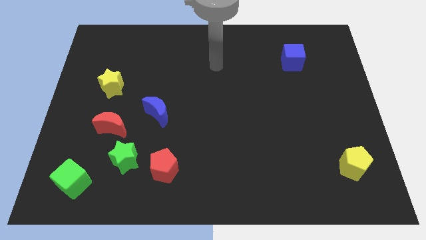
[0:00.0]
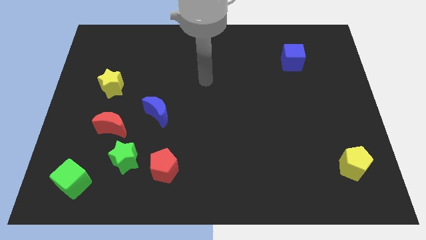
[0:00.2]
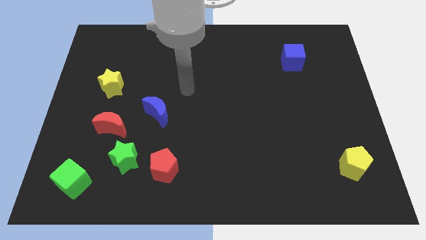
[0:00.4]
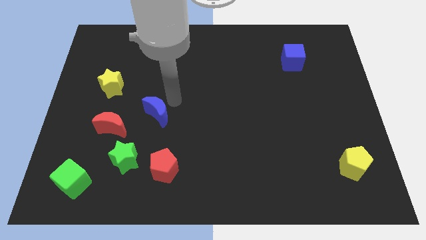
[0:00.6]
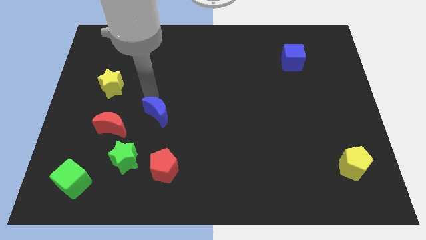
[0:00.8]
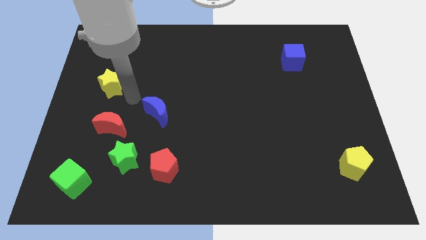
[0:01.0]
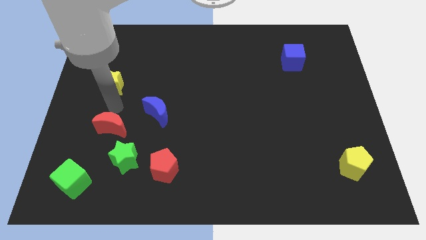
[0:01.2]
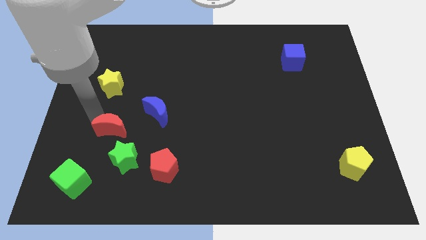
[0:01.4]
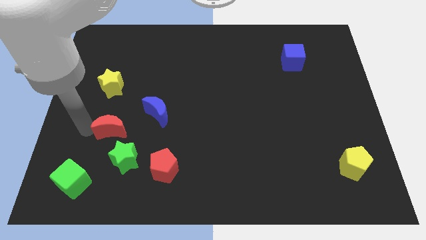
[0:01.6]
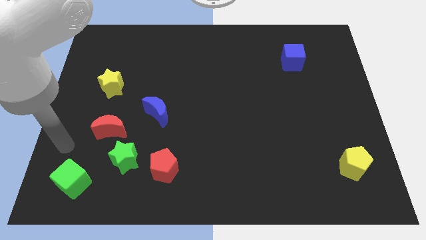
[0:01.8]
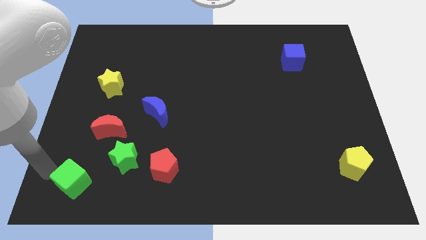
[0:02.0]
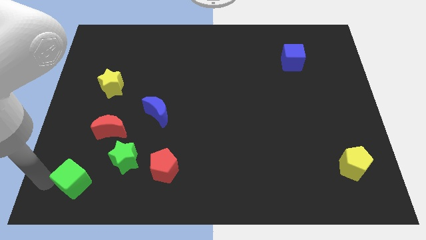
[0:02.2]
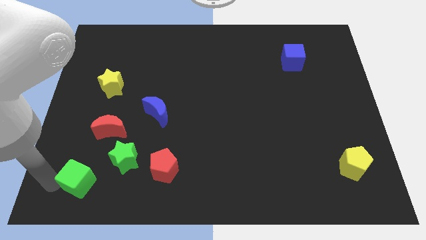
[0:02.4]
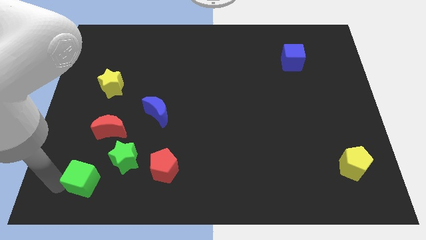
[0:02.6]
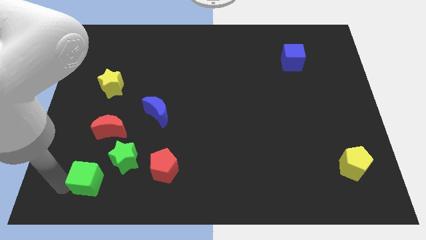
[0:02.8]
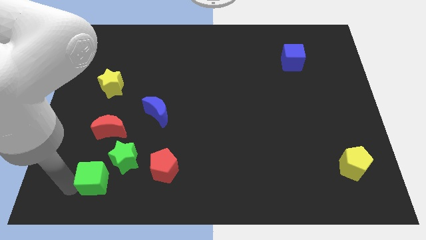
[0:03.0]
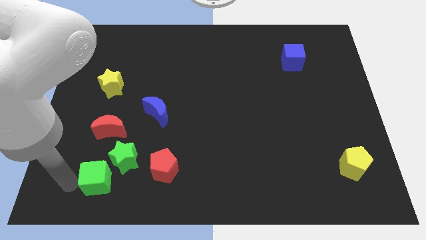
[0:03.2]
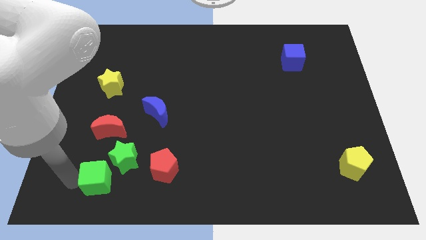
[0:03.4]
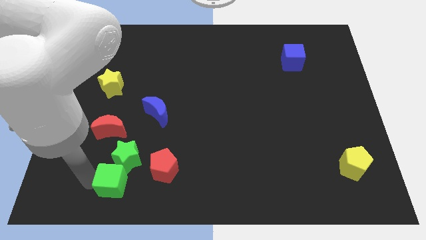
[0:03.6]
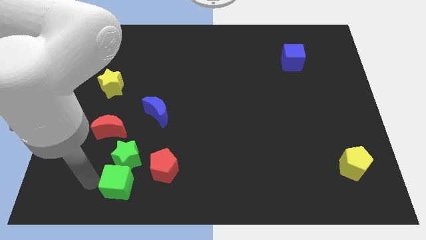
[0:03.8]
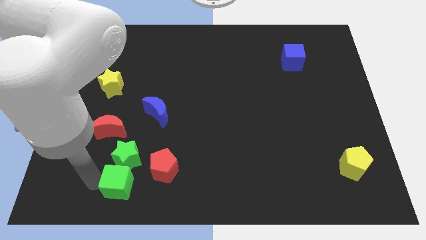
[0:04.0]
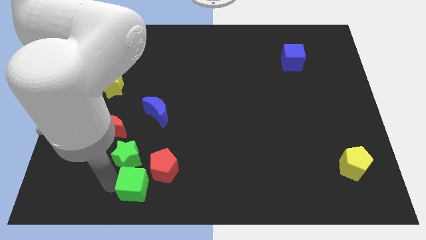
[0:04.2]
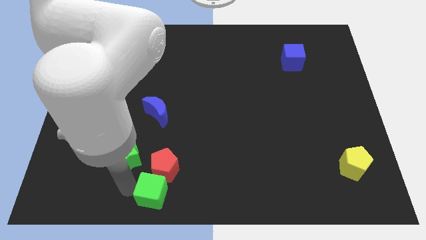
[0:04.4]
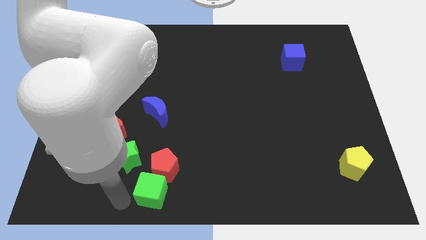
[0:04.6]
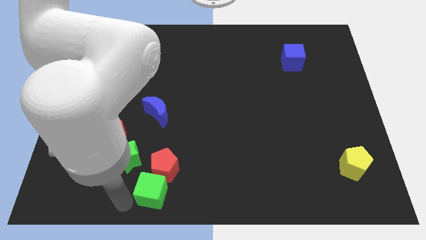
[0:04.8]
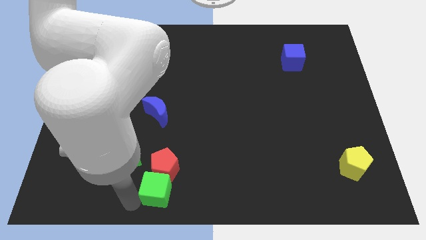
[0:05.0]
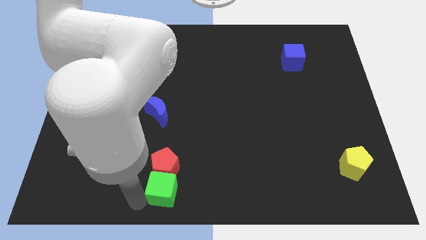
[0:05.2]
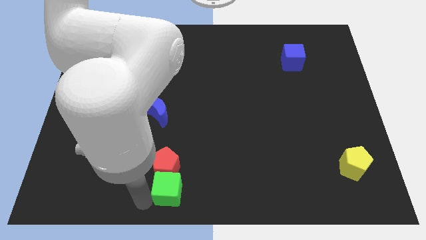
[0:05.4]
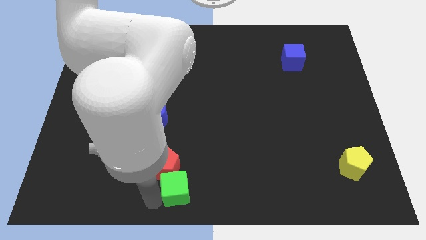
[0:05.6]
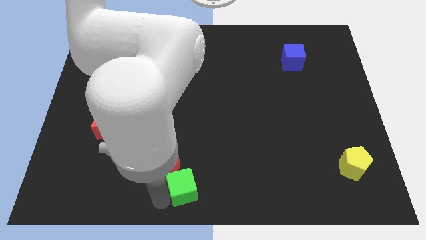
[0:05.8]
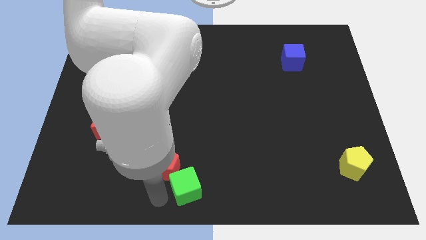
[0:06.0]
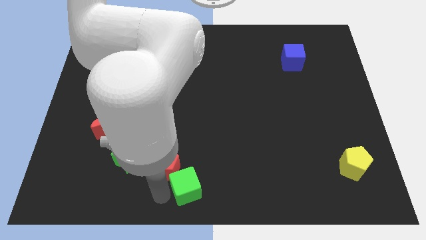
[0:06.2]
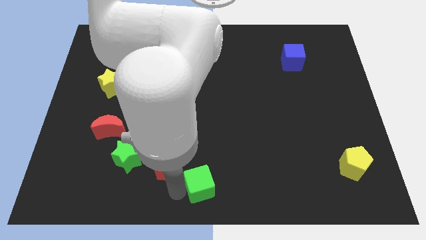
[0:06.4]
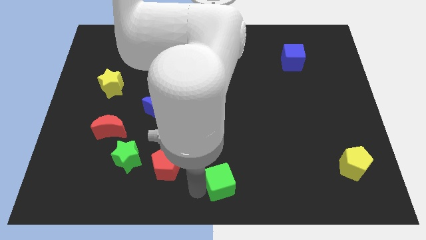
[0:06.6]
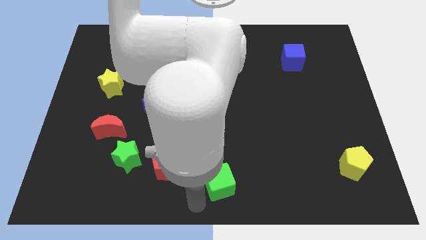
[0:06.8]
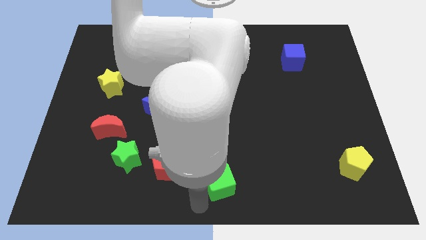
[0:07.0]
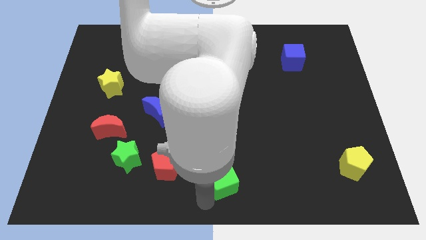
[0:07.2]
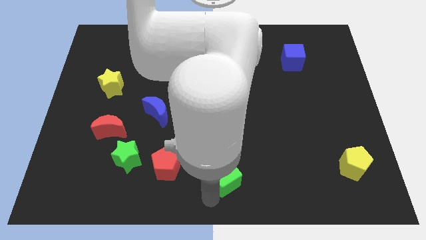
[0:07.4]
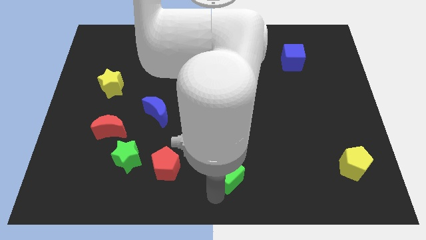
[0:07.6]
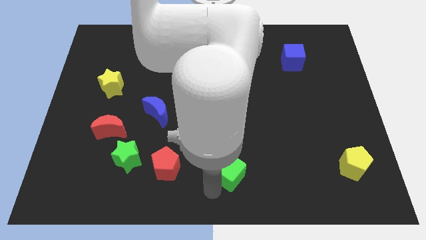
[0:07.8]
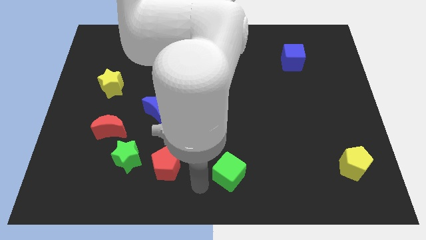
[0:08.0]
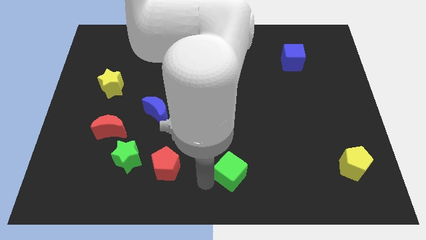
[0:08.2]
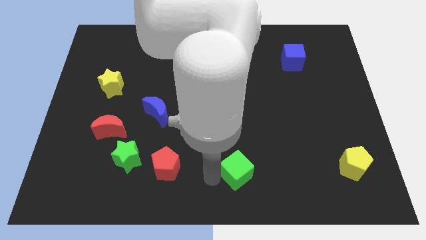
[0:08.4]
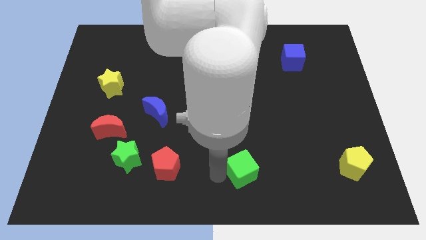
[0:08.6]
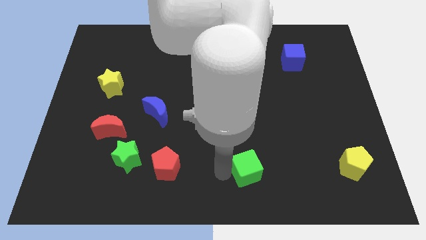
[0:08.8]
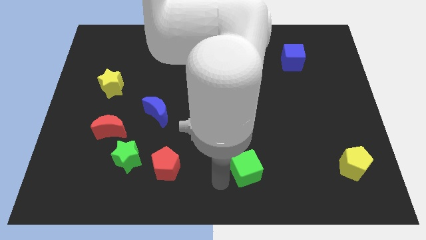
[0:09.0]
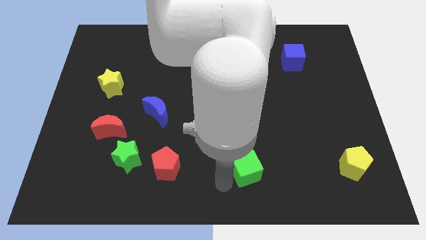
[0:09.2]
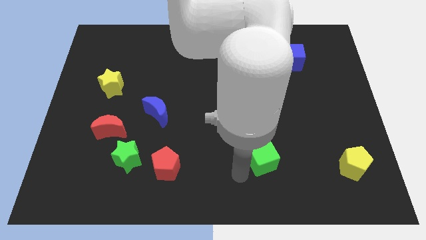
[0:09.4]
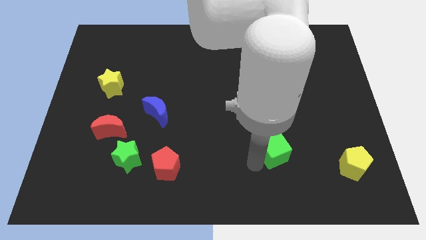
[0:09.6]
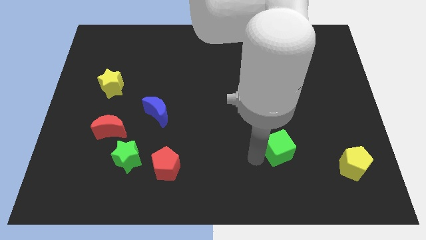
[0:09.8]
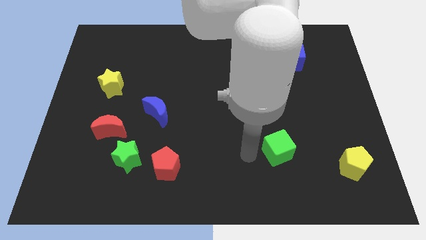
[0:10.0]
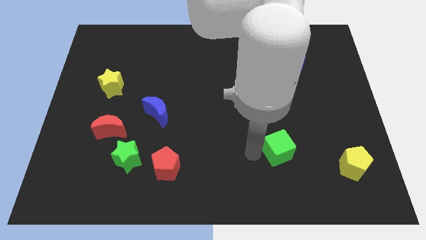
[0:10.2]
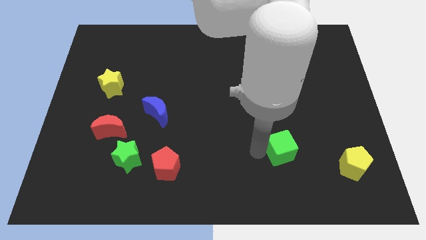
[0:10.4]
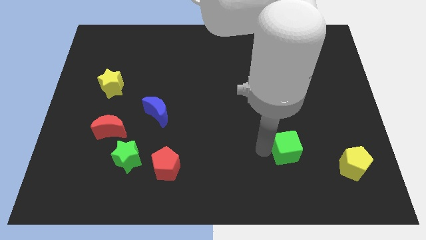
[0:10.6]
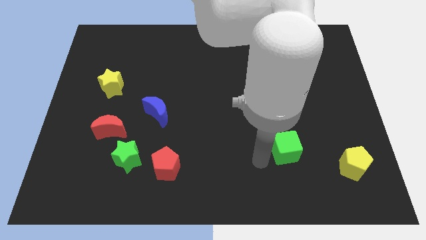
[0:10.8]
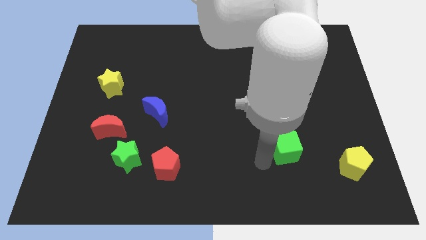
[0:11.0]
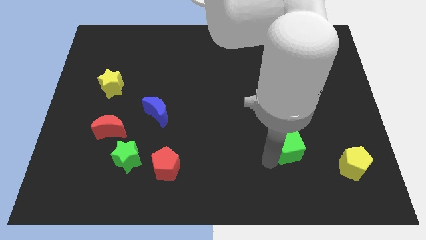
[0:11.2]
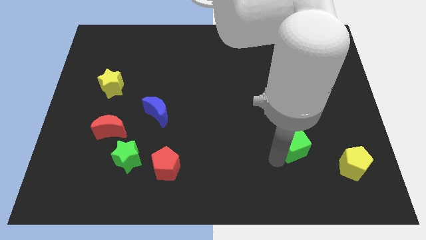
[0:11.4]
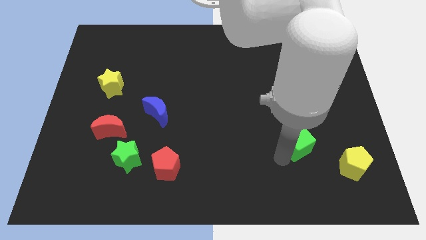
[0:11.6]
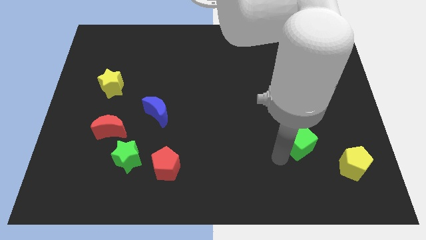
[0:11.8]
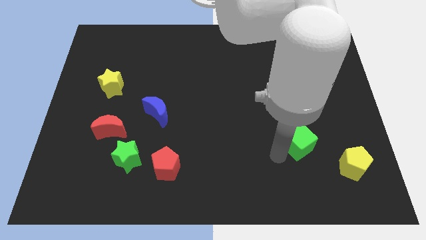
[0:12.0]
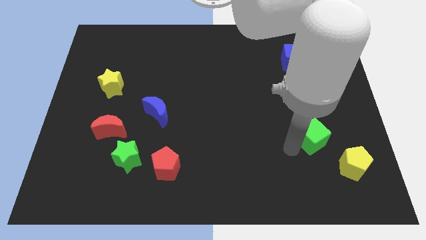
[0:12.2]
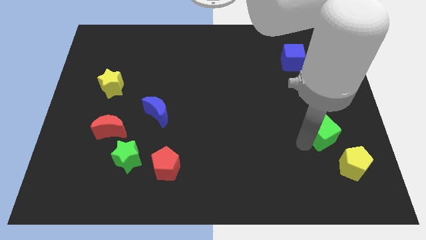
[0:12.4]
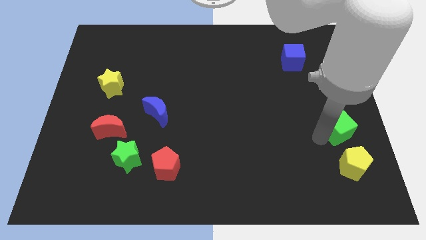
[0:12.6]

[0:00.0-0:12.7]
slide the green cube to the right side of the board

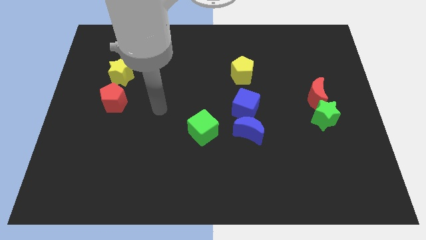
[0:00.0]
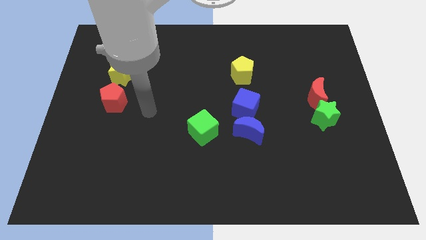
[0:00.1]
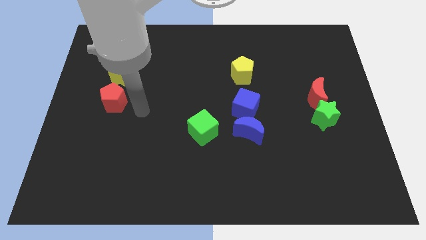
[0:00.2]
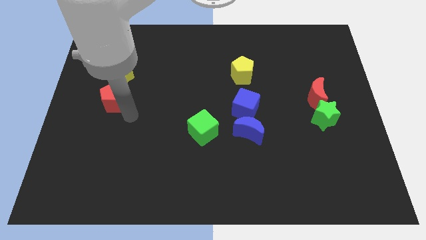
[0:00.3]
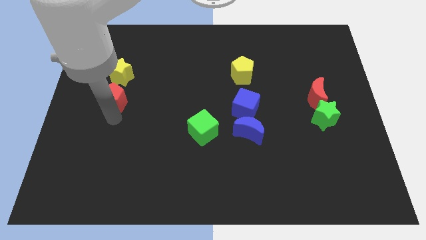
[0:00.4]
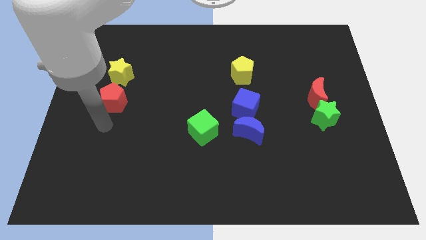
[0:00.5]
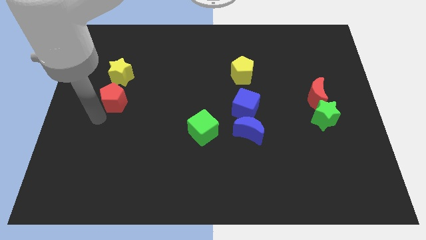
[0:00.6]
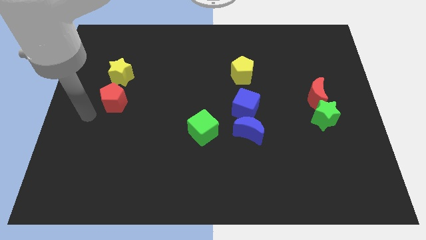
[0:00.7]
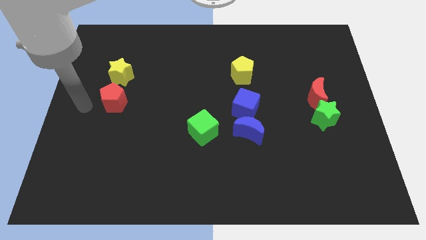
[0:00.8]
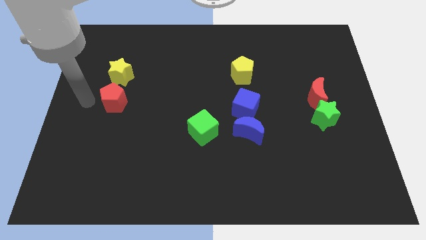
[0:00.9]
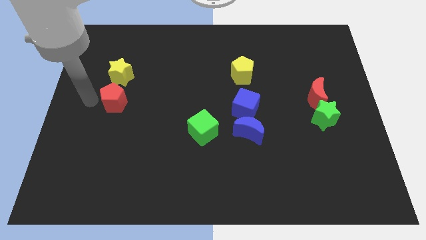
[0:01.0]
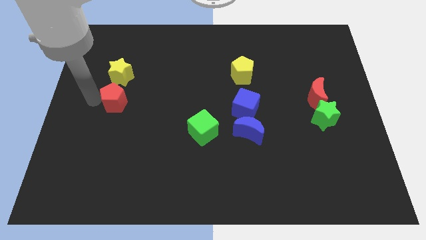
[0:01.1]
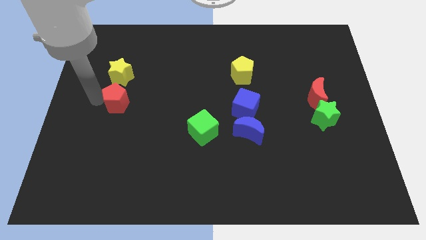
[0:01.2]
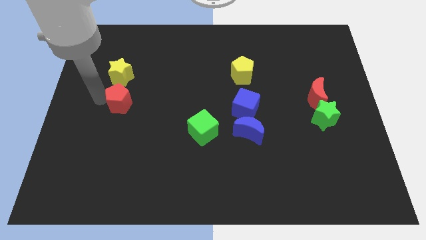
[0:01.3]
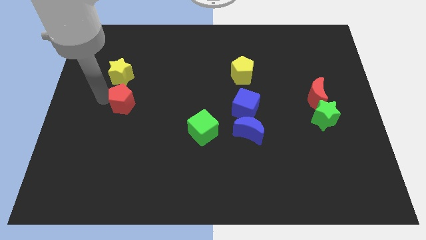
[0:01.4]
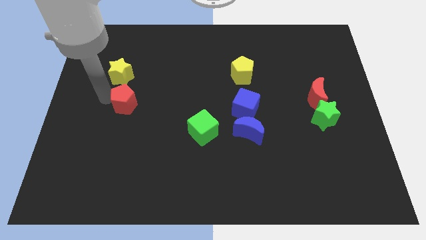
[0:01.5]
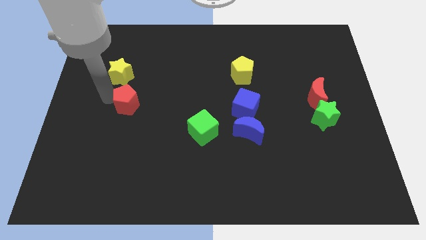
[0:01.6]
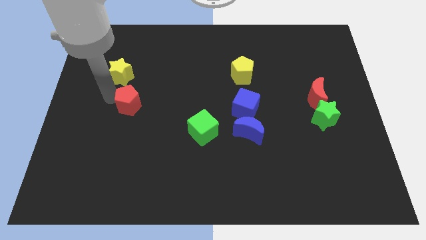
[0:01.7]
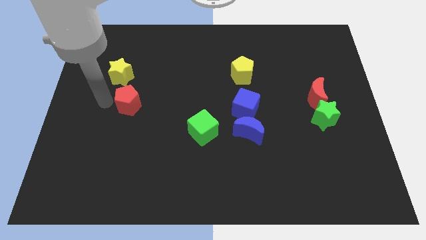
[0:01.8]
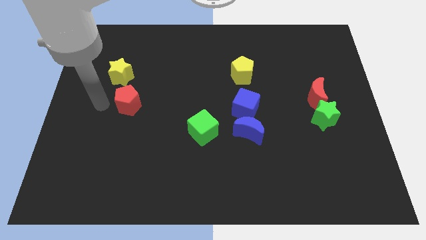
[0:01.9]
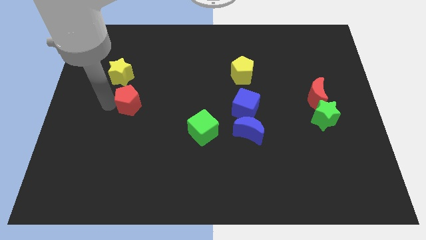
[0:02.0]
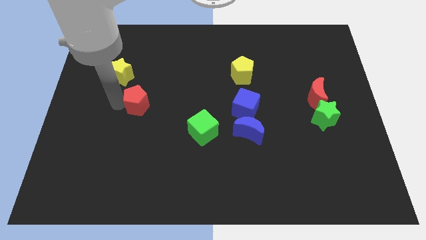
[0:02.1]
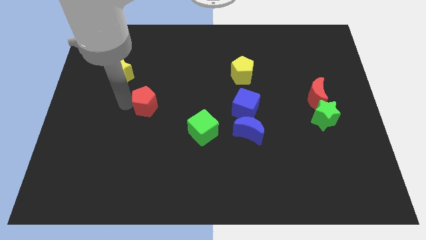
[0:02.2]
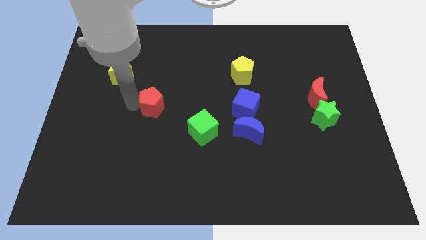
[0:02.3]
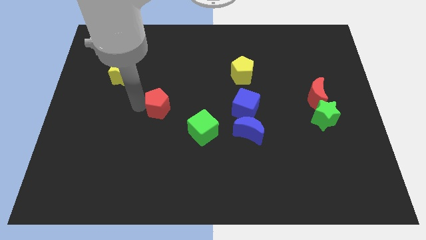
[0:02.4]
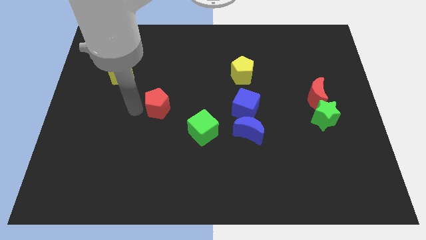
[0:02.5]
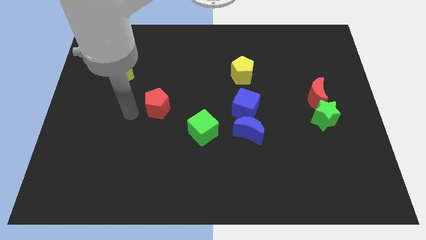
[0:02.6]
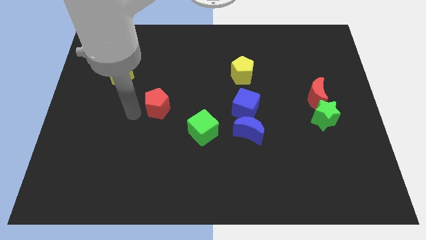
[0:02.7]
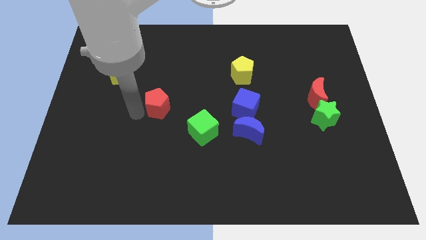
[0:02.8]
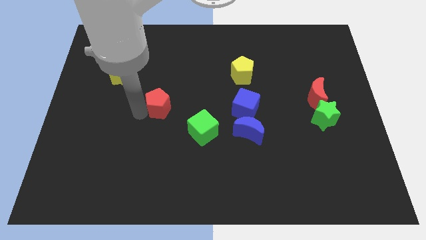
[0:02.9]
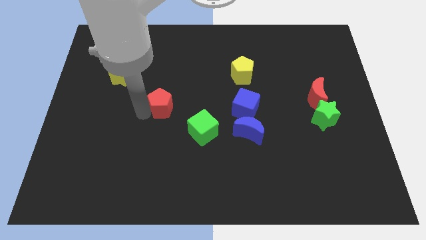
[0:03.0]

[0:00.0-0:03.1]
slide the red pentagon to the center of the board
